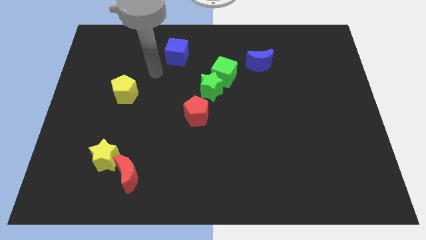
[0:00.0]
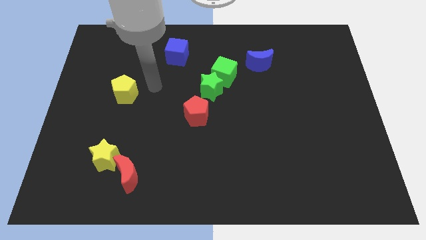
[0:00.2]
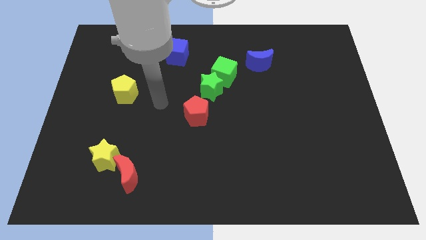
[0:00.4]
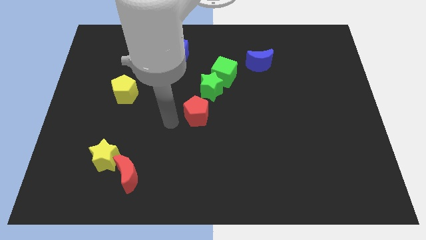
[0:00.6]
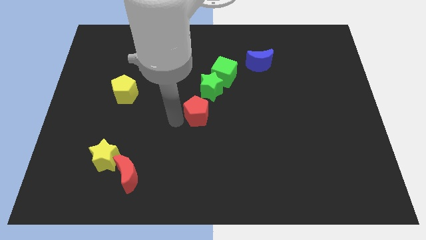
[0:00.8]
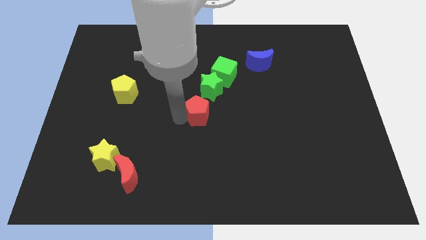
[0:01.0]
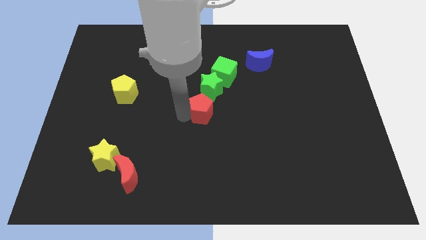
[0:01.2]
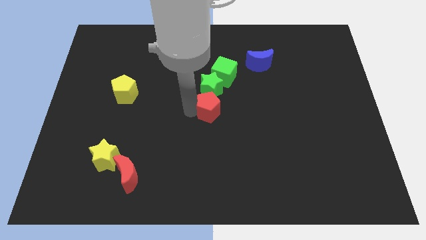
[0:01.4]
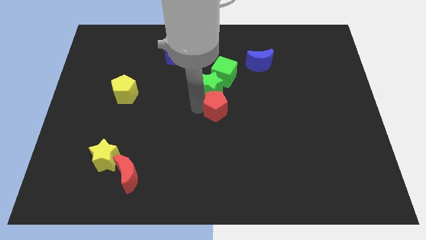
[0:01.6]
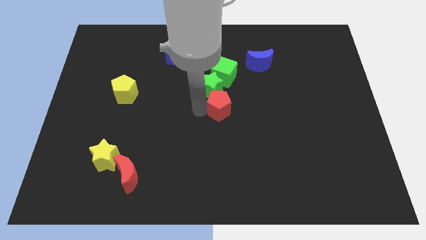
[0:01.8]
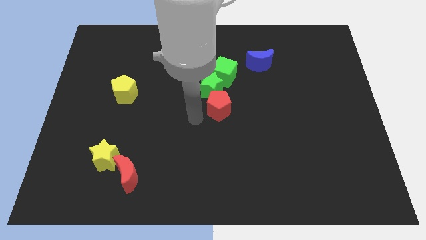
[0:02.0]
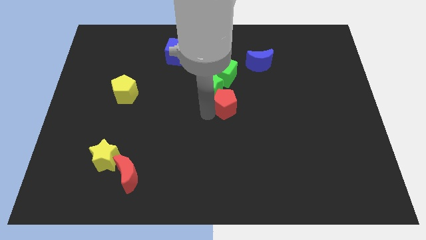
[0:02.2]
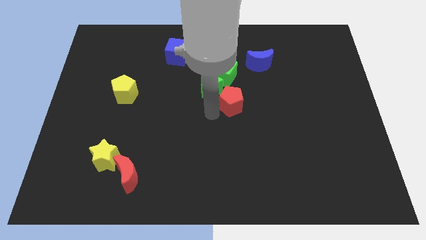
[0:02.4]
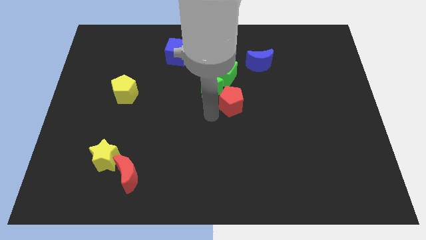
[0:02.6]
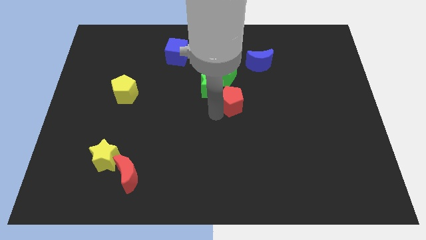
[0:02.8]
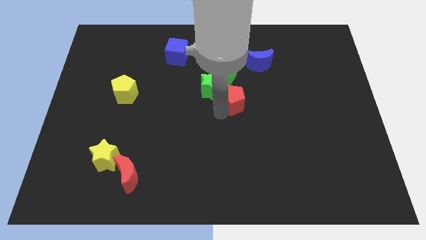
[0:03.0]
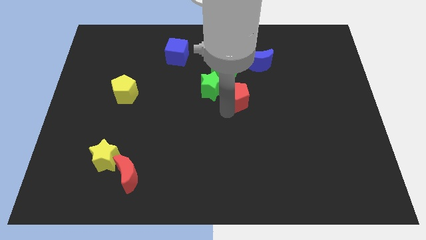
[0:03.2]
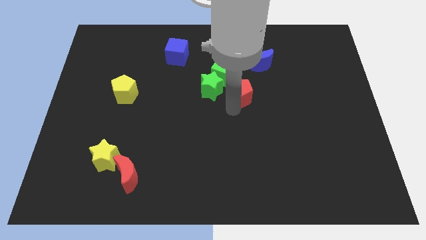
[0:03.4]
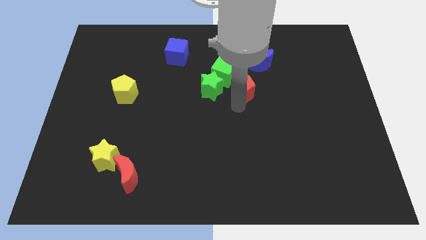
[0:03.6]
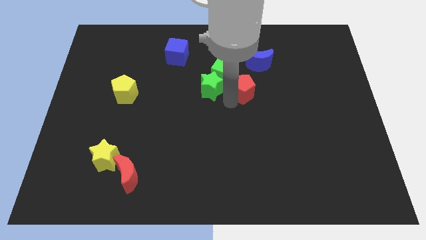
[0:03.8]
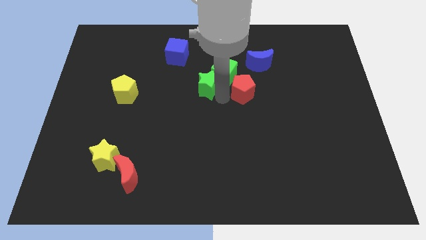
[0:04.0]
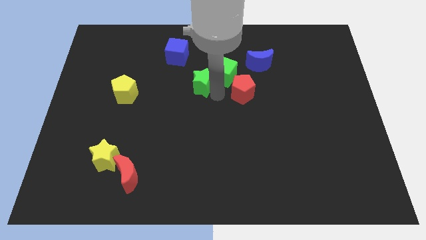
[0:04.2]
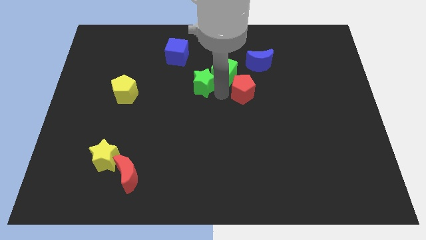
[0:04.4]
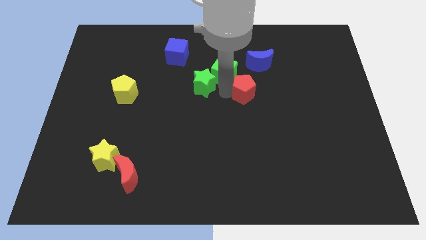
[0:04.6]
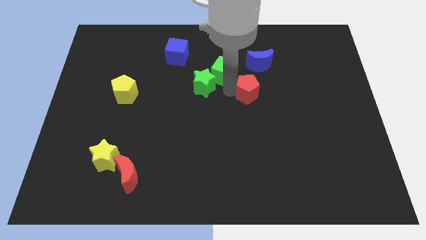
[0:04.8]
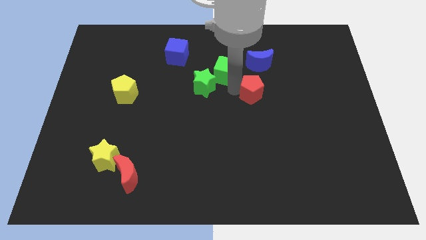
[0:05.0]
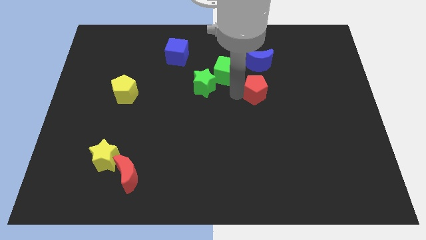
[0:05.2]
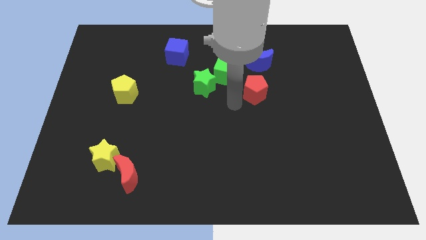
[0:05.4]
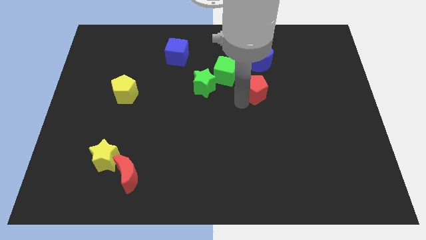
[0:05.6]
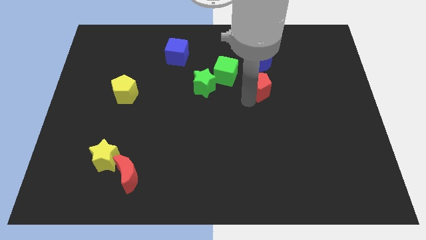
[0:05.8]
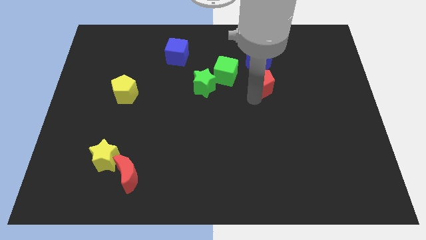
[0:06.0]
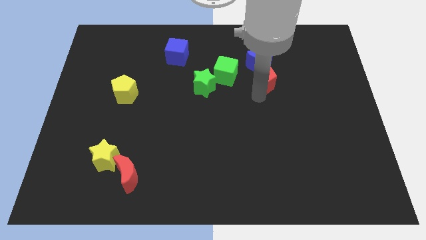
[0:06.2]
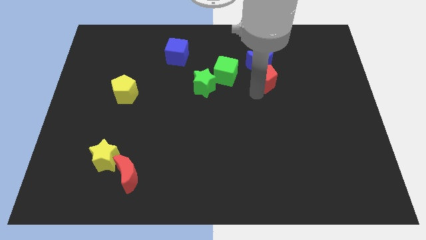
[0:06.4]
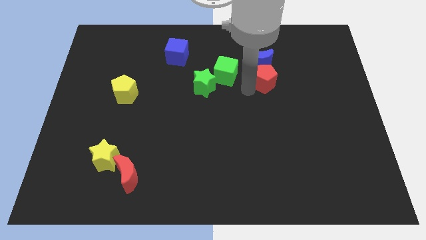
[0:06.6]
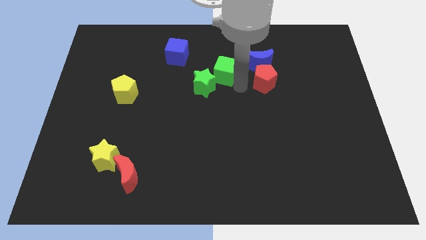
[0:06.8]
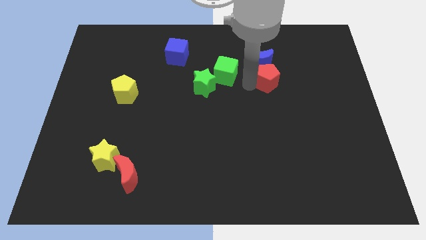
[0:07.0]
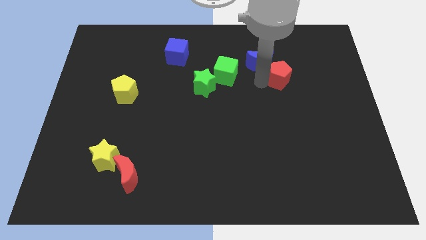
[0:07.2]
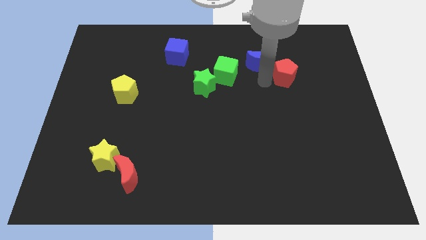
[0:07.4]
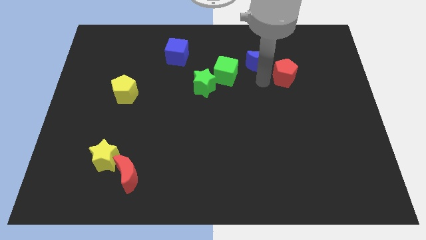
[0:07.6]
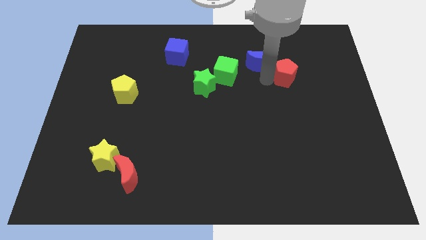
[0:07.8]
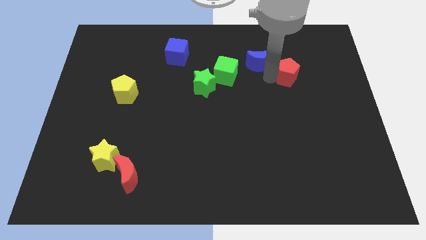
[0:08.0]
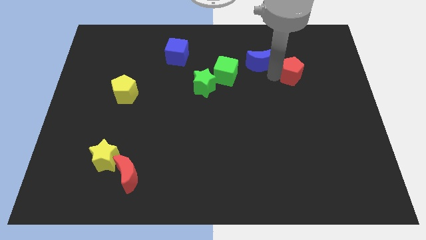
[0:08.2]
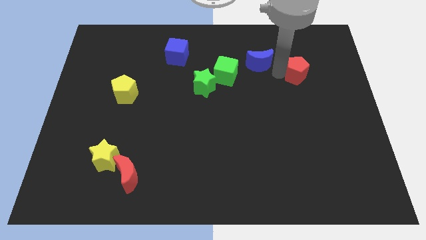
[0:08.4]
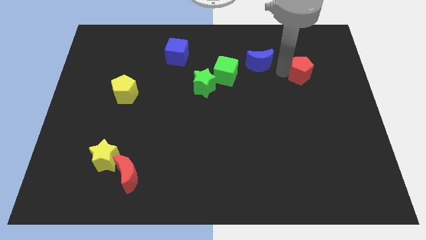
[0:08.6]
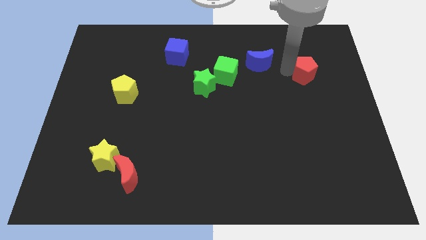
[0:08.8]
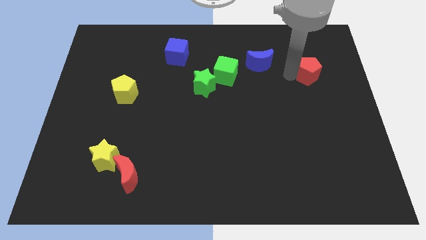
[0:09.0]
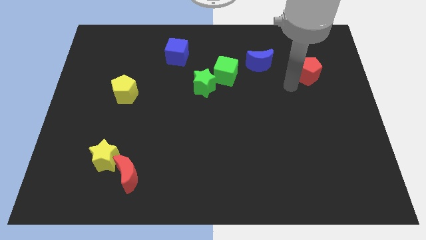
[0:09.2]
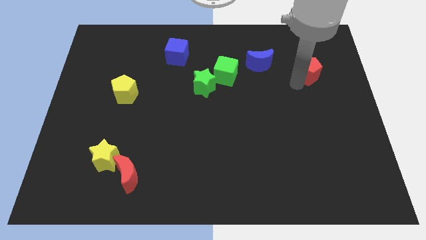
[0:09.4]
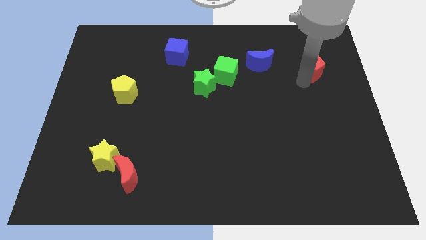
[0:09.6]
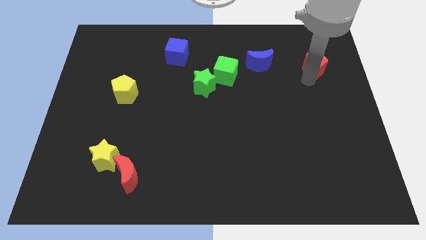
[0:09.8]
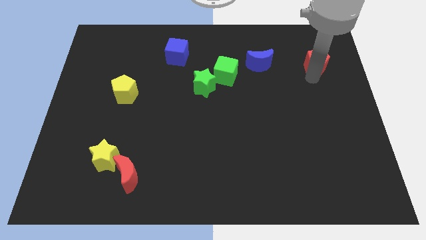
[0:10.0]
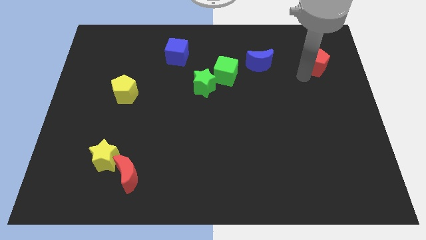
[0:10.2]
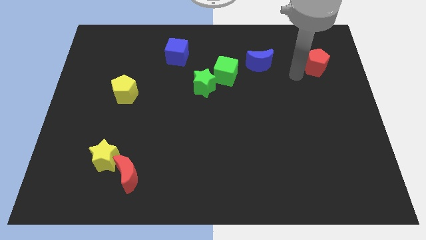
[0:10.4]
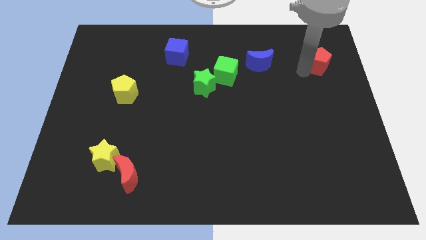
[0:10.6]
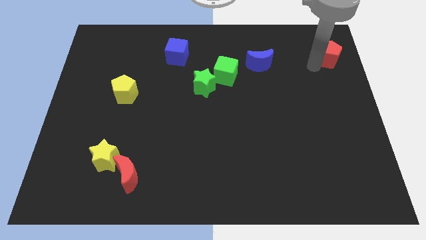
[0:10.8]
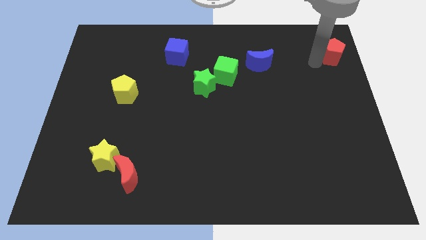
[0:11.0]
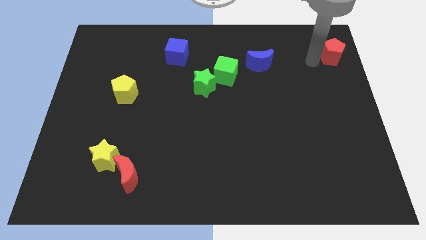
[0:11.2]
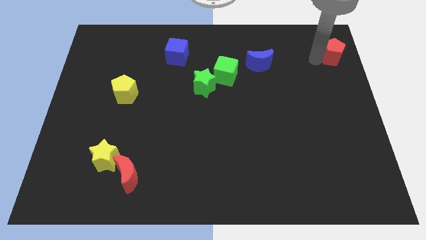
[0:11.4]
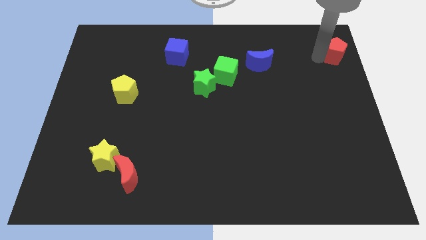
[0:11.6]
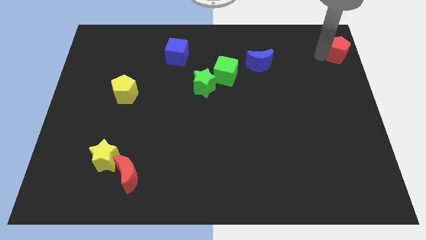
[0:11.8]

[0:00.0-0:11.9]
push the red pentagon to the top right
